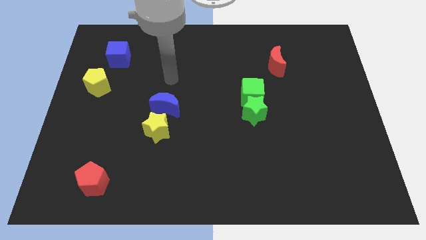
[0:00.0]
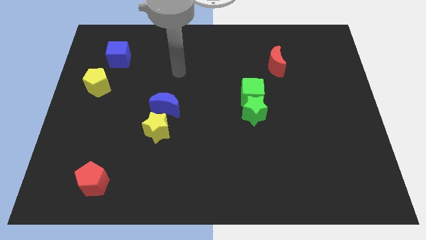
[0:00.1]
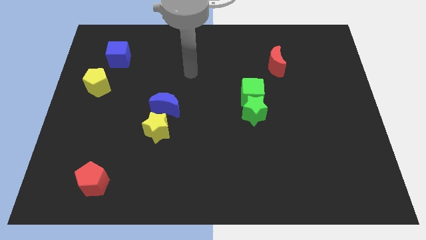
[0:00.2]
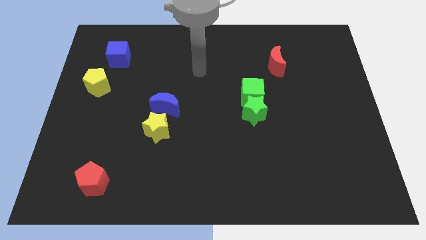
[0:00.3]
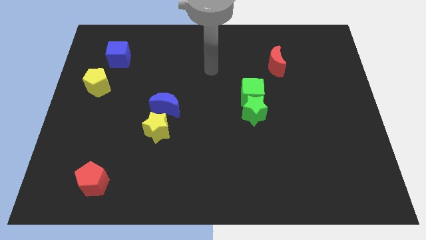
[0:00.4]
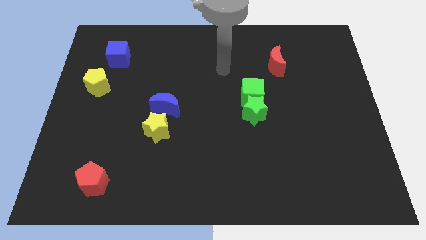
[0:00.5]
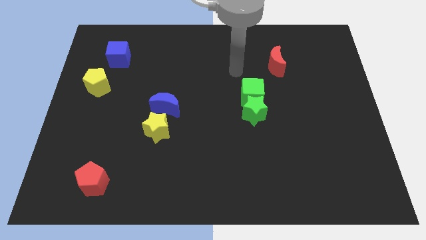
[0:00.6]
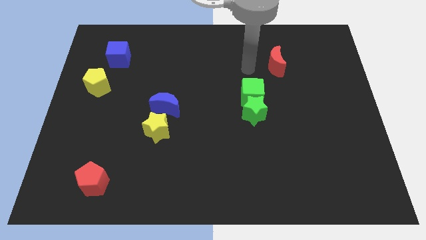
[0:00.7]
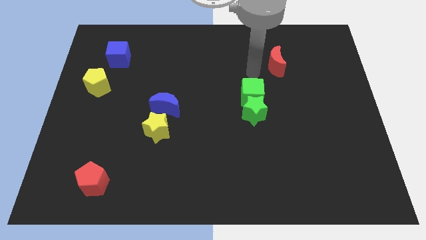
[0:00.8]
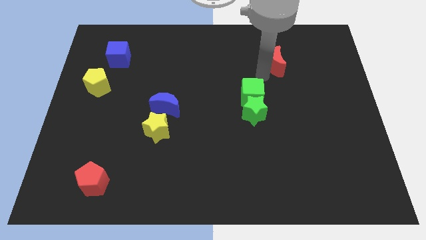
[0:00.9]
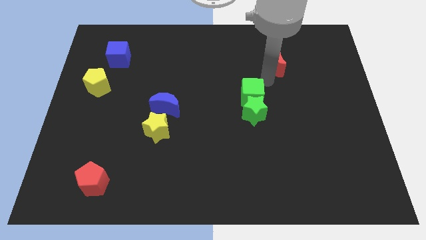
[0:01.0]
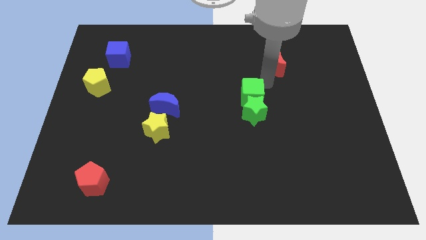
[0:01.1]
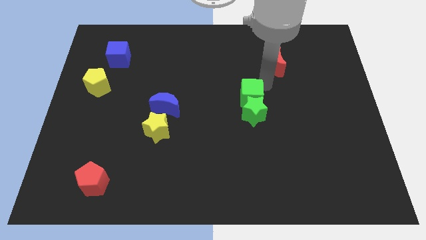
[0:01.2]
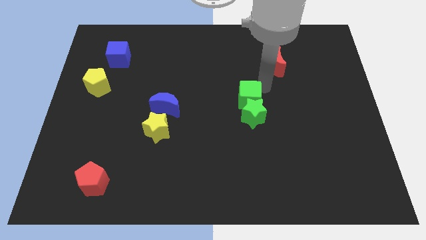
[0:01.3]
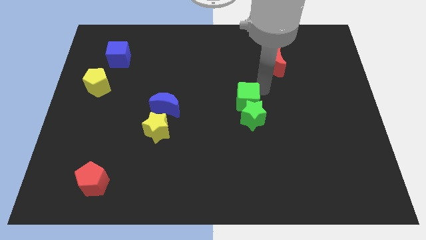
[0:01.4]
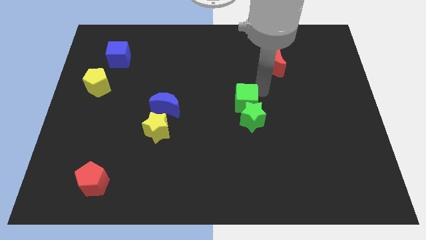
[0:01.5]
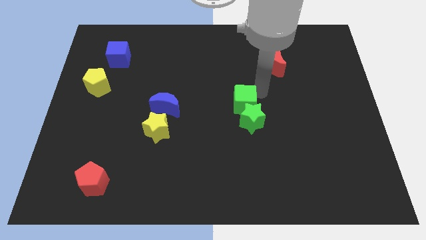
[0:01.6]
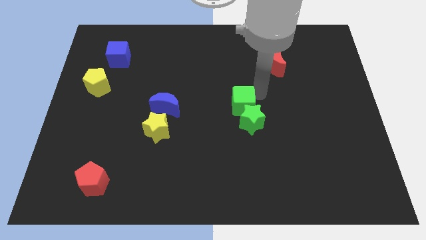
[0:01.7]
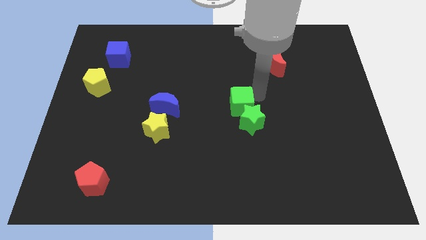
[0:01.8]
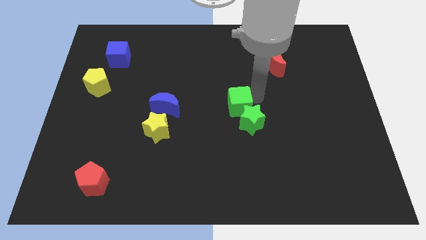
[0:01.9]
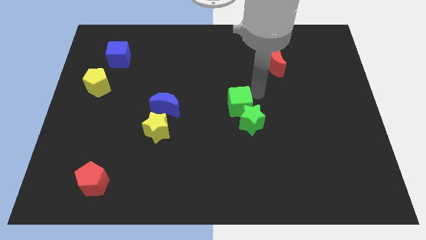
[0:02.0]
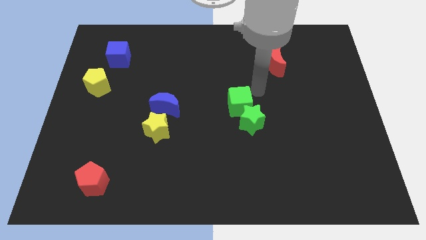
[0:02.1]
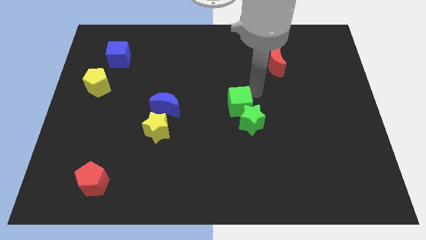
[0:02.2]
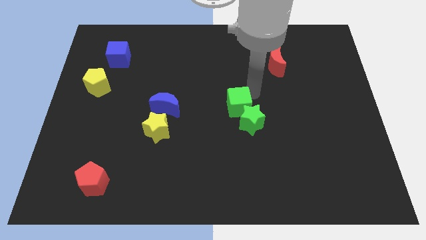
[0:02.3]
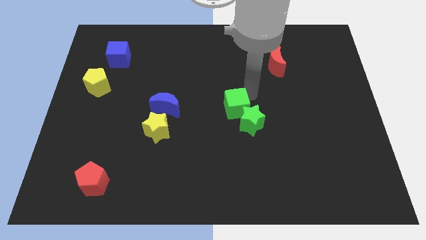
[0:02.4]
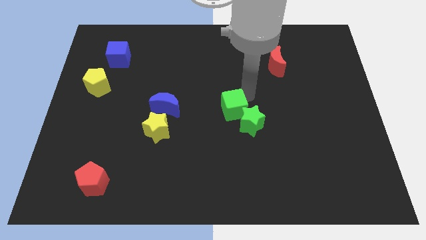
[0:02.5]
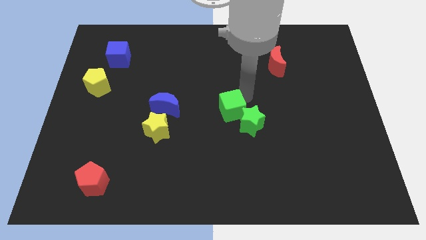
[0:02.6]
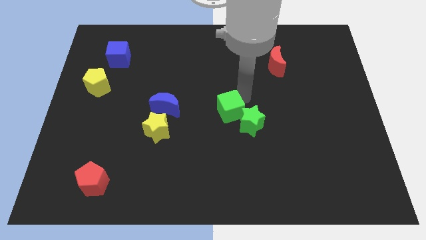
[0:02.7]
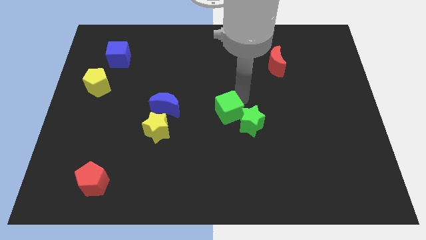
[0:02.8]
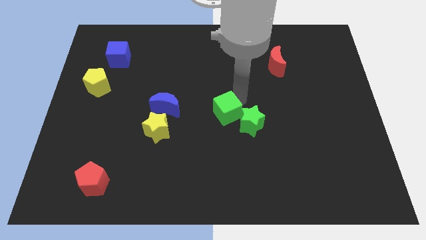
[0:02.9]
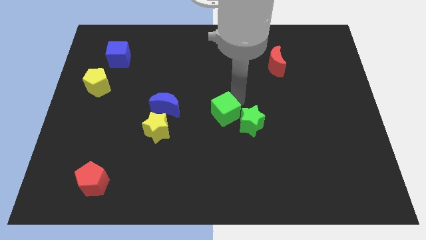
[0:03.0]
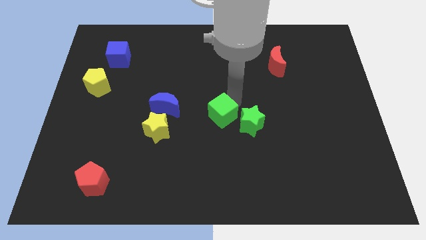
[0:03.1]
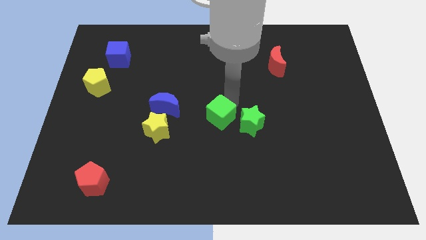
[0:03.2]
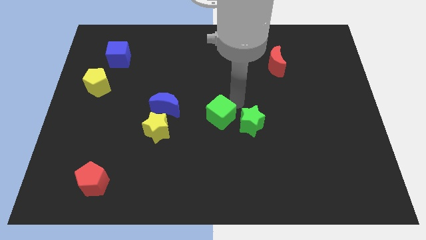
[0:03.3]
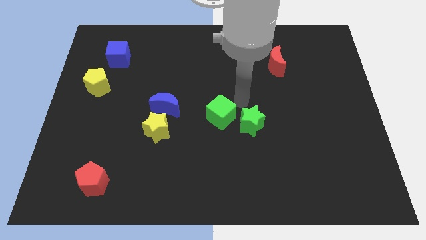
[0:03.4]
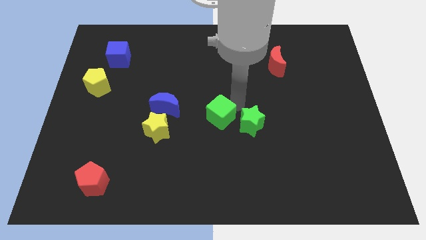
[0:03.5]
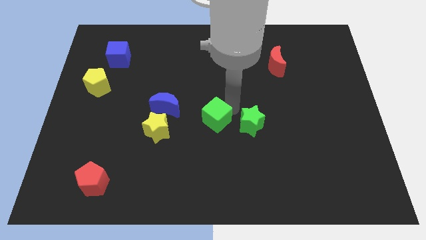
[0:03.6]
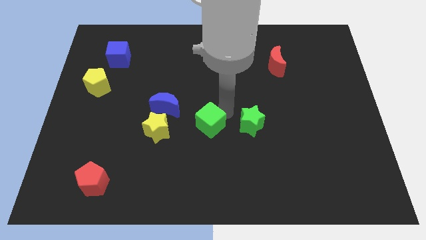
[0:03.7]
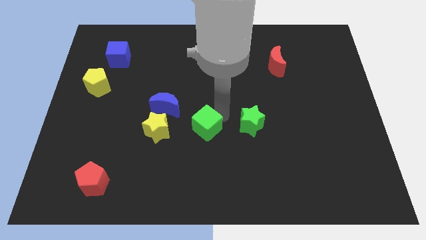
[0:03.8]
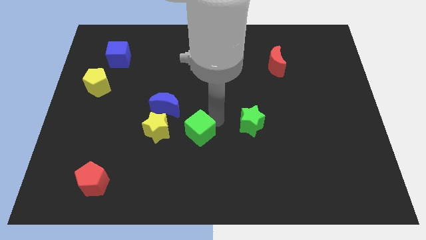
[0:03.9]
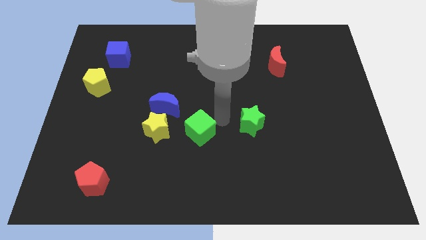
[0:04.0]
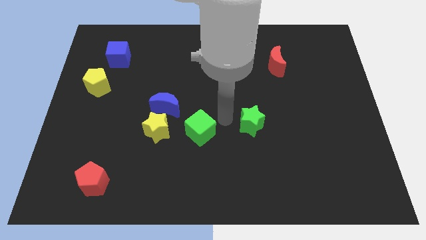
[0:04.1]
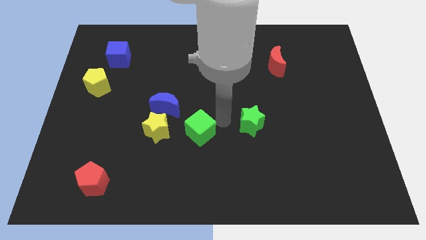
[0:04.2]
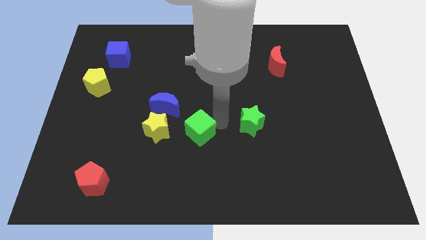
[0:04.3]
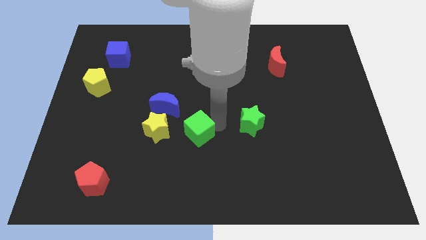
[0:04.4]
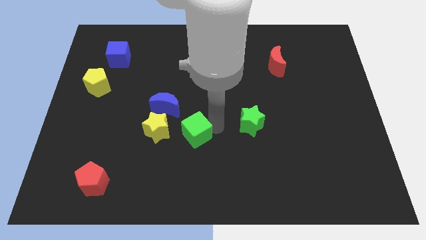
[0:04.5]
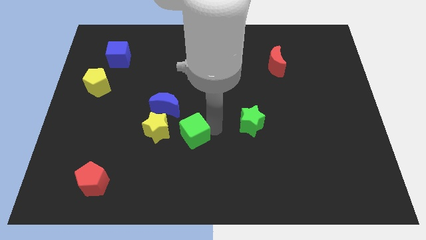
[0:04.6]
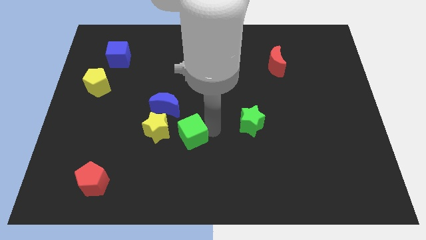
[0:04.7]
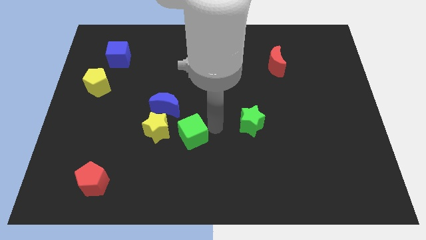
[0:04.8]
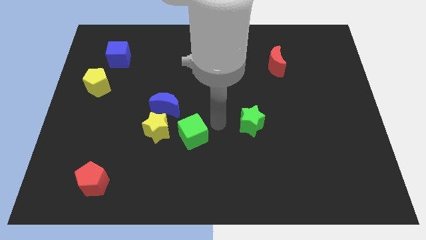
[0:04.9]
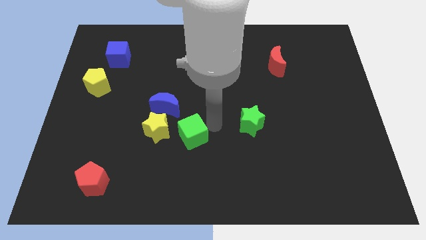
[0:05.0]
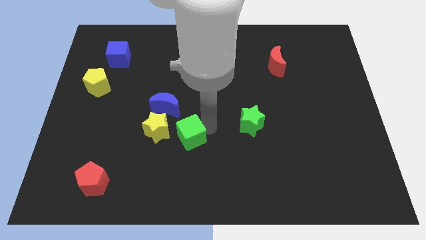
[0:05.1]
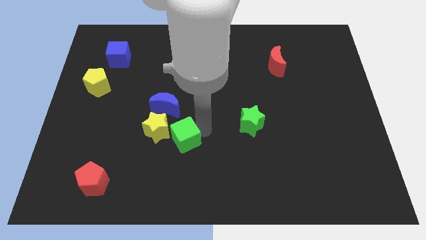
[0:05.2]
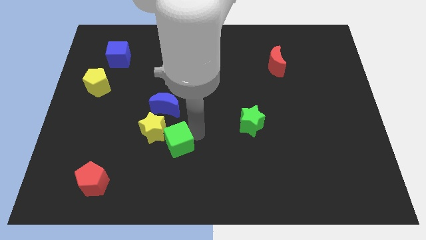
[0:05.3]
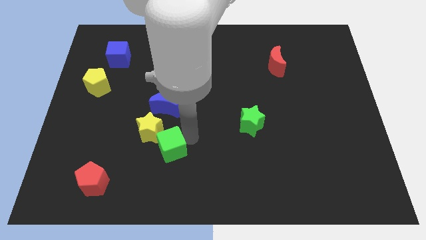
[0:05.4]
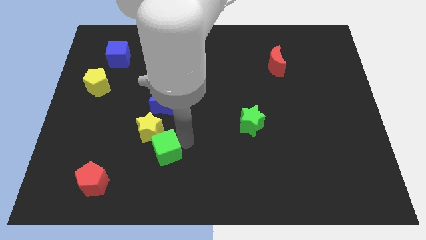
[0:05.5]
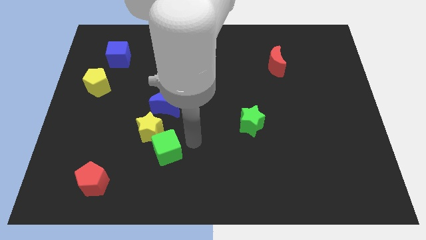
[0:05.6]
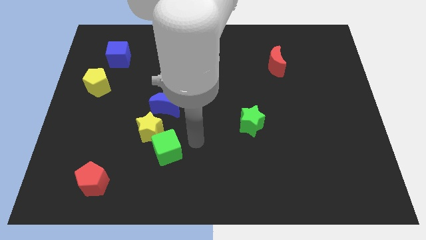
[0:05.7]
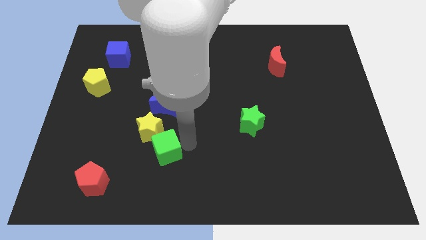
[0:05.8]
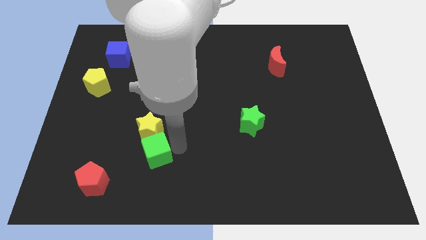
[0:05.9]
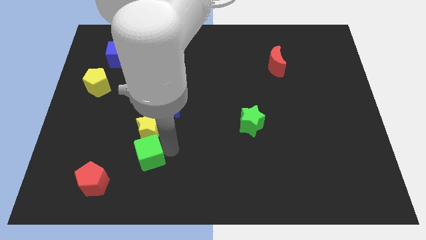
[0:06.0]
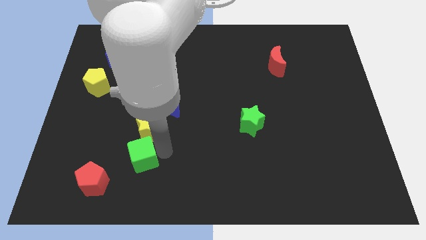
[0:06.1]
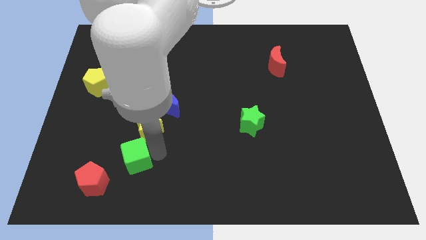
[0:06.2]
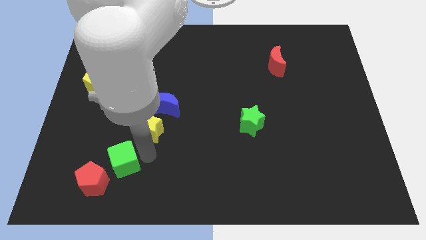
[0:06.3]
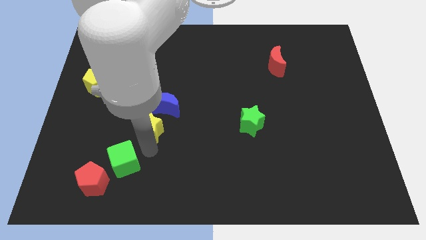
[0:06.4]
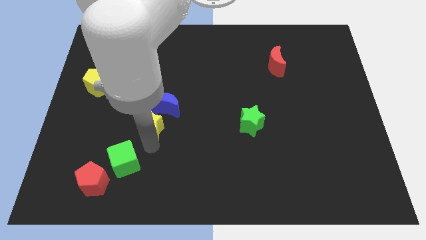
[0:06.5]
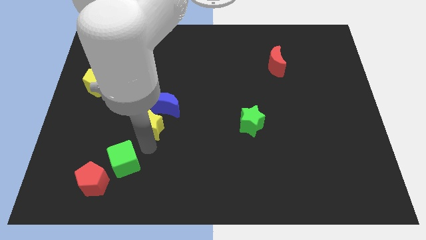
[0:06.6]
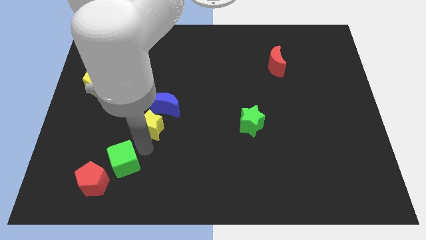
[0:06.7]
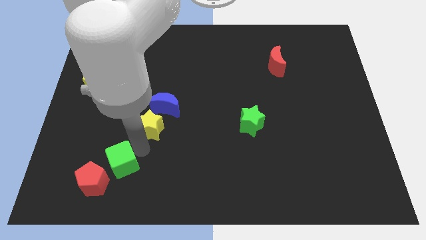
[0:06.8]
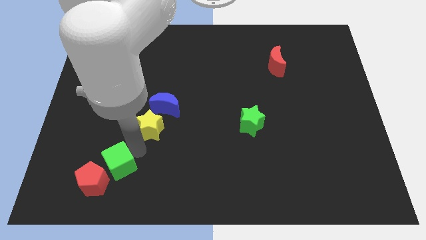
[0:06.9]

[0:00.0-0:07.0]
push the green cube towards the red pentagon
